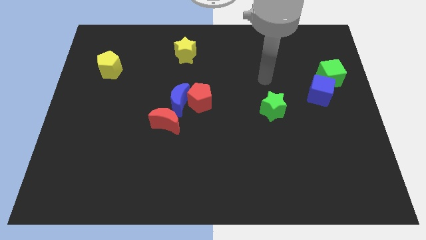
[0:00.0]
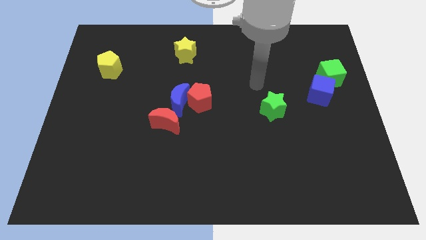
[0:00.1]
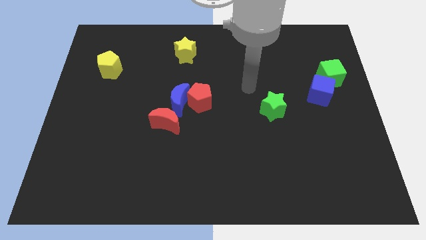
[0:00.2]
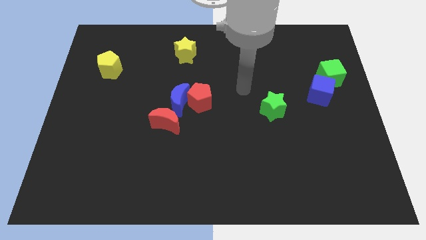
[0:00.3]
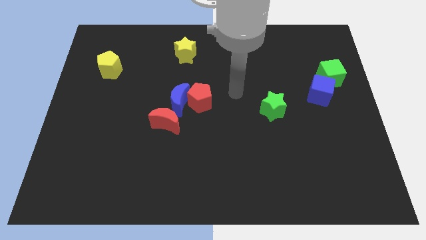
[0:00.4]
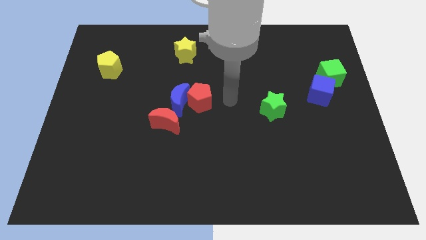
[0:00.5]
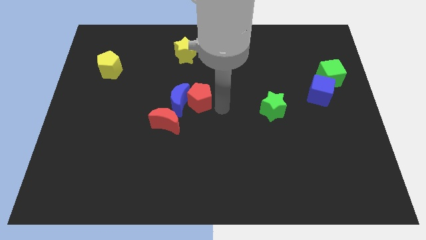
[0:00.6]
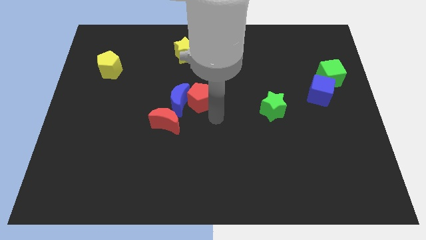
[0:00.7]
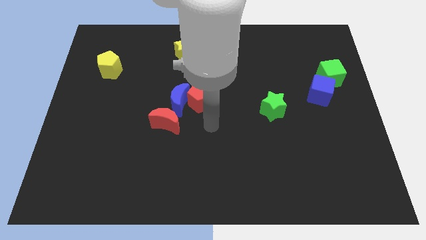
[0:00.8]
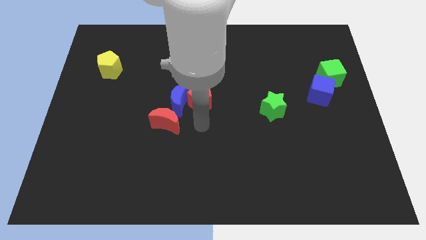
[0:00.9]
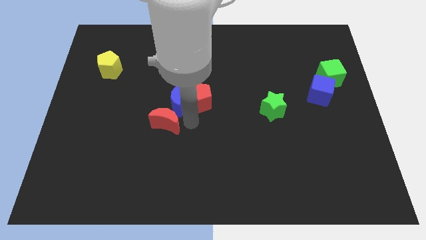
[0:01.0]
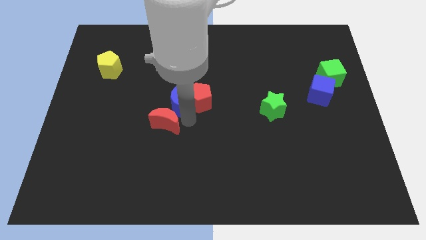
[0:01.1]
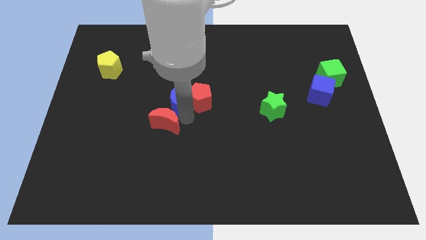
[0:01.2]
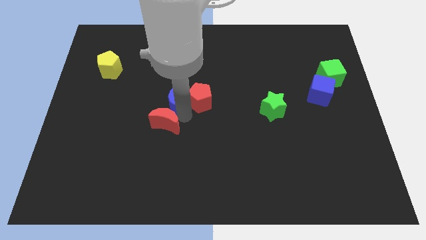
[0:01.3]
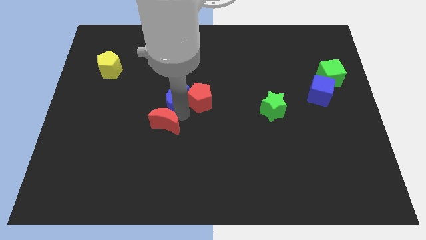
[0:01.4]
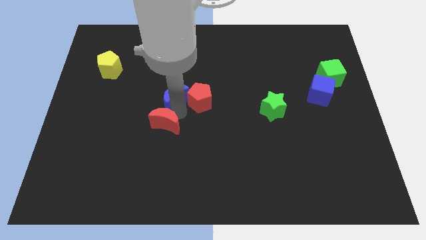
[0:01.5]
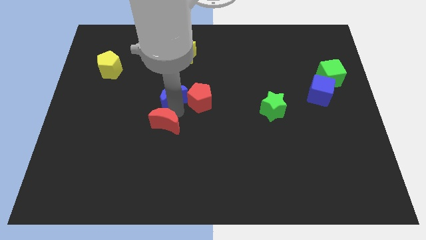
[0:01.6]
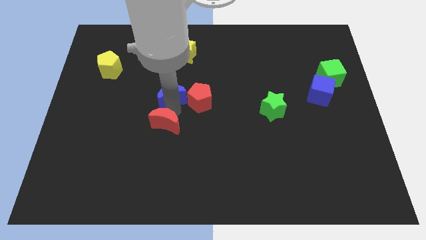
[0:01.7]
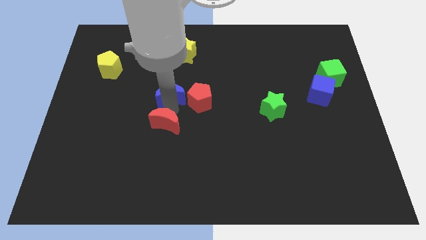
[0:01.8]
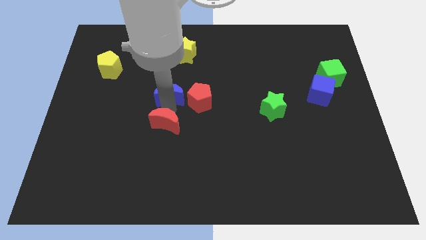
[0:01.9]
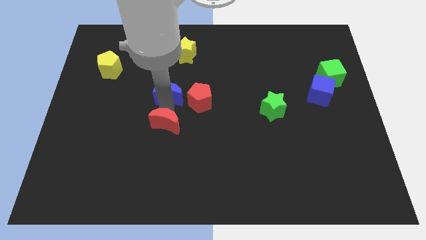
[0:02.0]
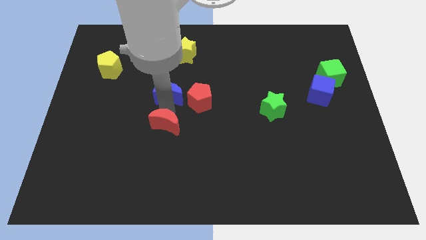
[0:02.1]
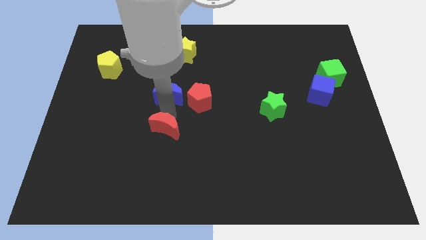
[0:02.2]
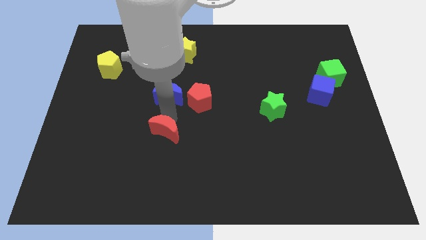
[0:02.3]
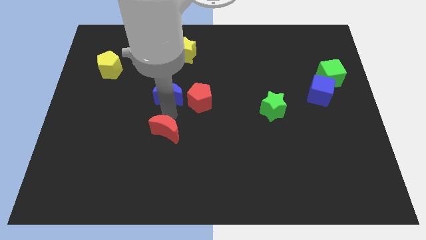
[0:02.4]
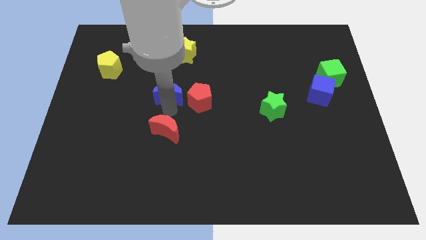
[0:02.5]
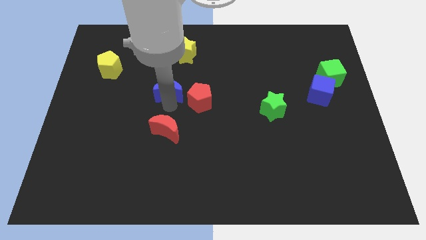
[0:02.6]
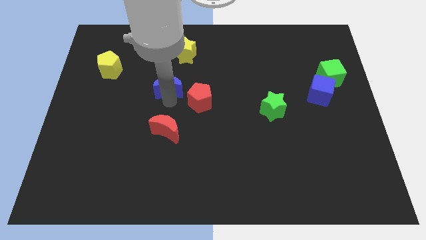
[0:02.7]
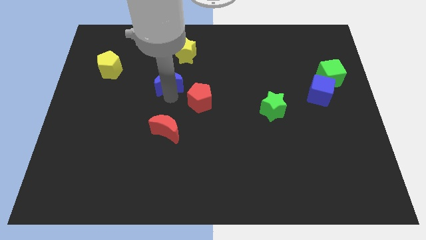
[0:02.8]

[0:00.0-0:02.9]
move the blue moon away from the red pentagon and red moon

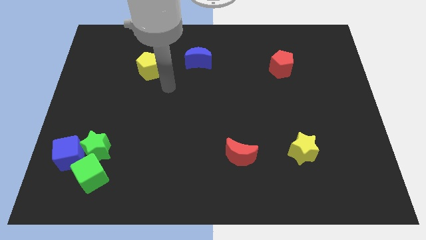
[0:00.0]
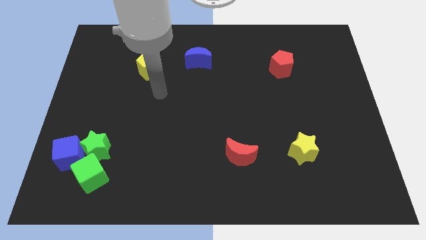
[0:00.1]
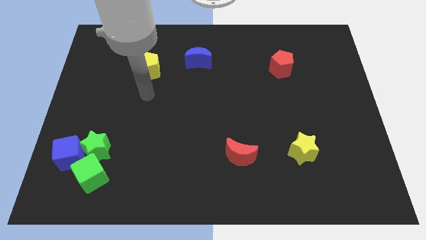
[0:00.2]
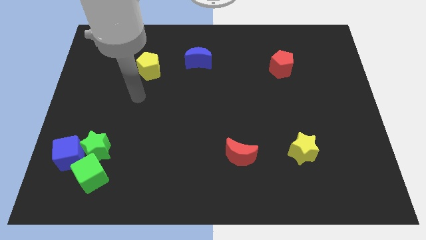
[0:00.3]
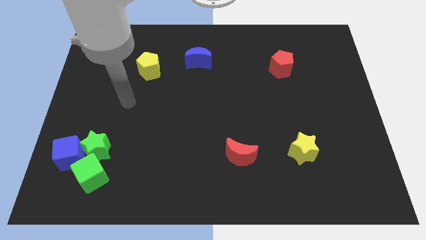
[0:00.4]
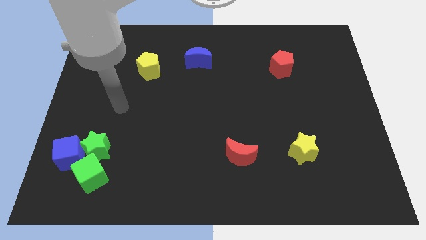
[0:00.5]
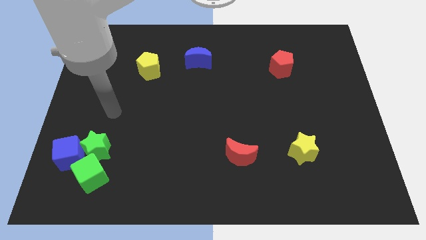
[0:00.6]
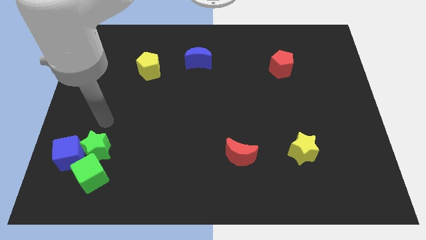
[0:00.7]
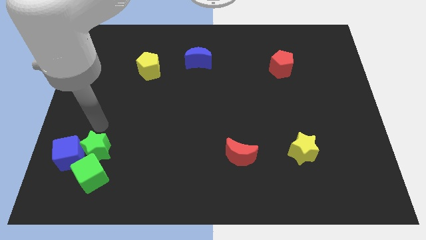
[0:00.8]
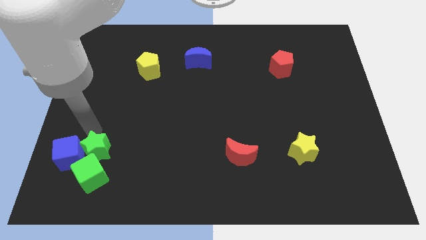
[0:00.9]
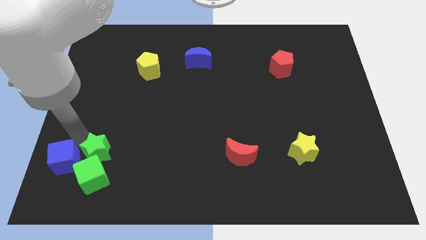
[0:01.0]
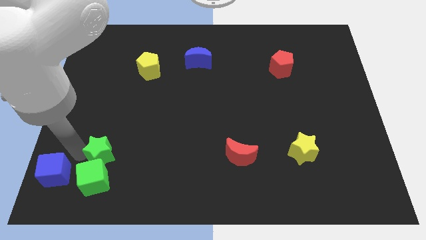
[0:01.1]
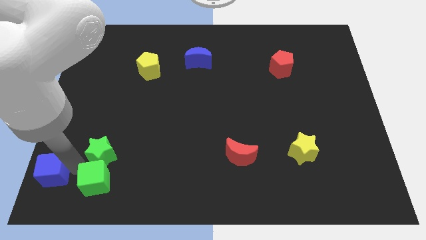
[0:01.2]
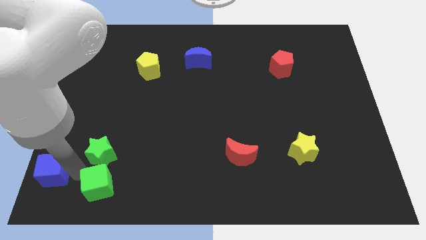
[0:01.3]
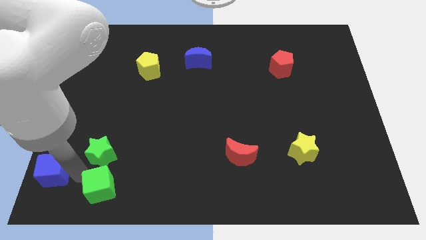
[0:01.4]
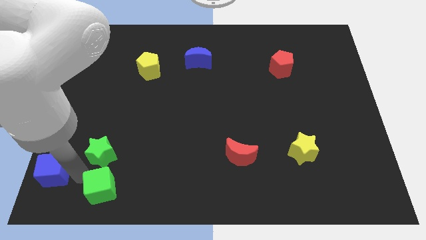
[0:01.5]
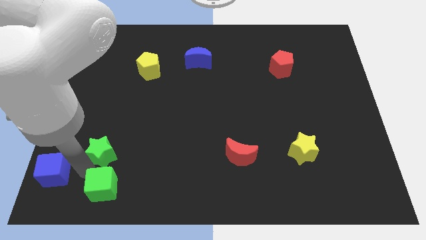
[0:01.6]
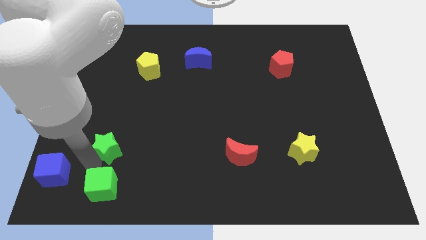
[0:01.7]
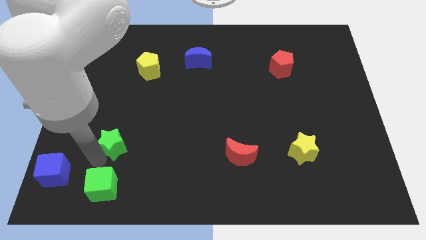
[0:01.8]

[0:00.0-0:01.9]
pull the green star apart from the blue cube and green cube

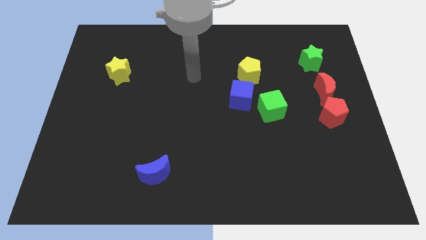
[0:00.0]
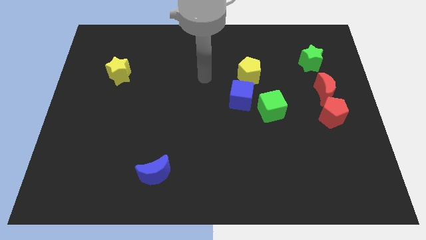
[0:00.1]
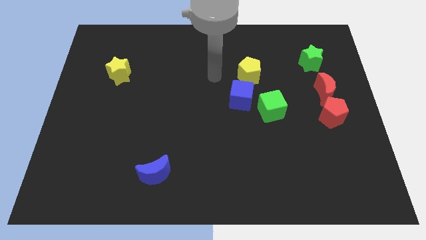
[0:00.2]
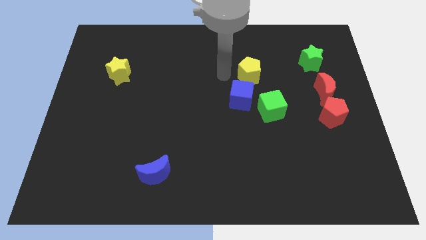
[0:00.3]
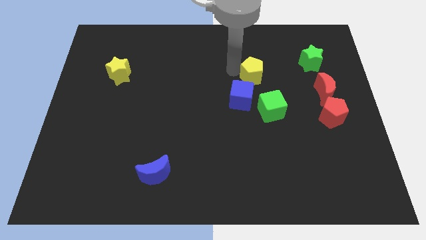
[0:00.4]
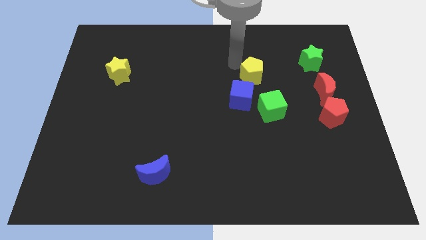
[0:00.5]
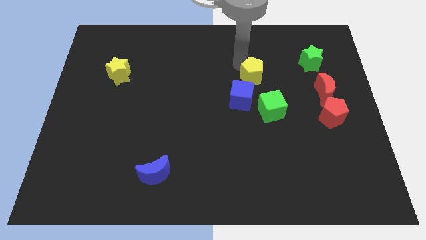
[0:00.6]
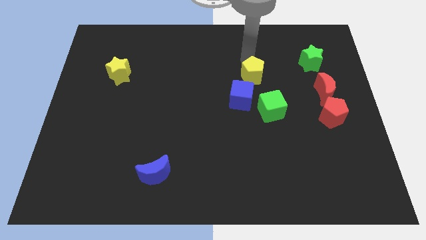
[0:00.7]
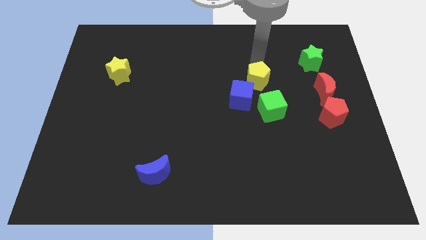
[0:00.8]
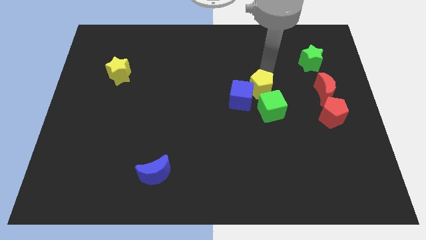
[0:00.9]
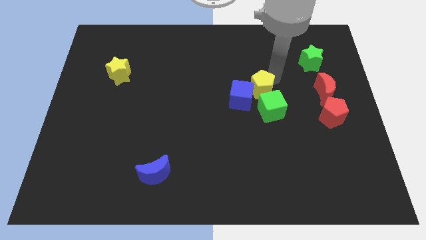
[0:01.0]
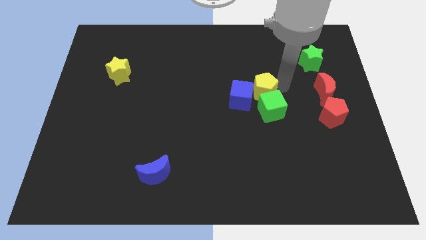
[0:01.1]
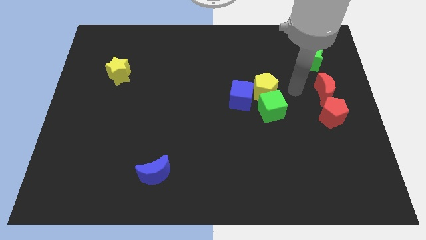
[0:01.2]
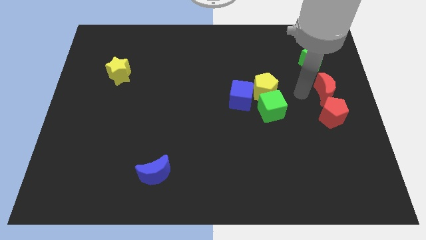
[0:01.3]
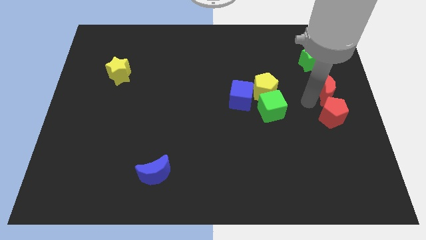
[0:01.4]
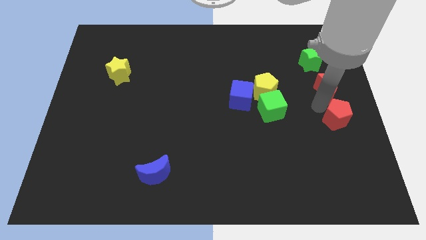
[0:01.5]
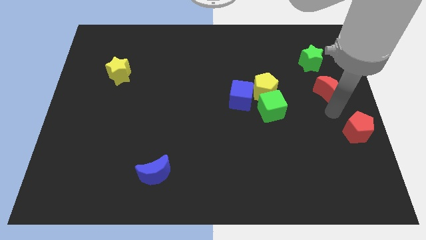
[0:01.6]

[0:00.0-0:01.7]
move the red moon away from the red pentagon

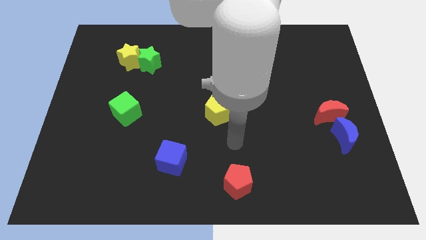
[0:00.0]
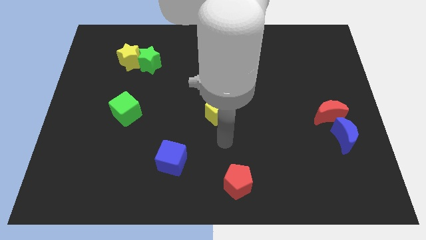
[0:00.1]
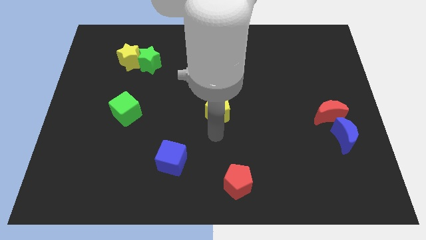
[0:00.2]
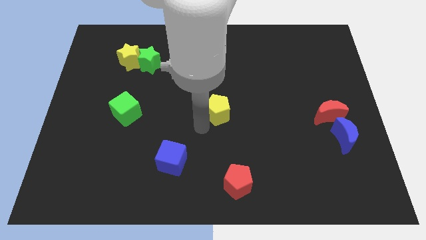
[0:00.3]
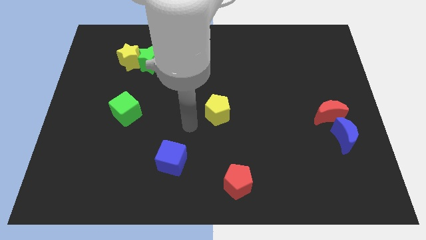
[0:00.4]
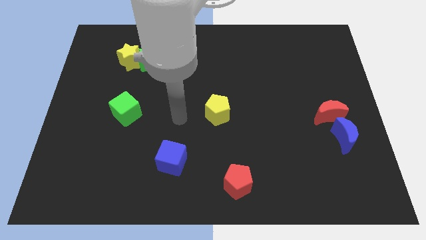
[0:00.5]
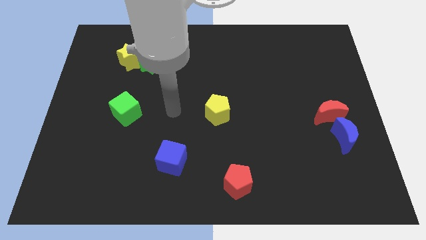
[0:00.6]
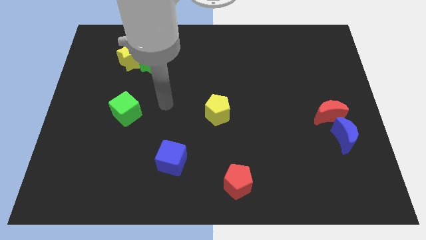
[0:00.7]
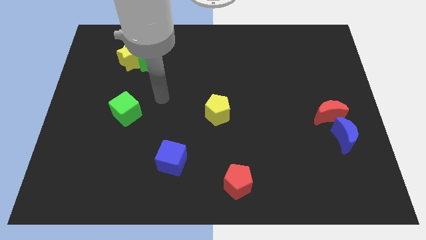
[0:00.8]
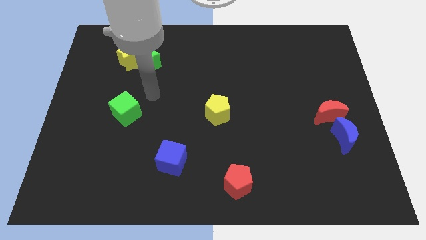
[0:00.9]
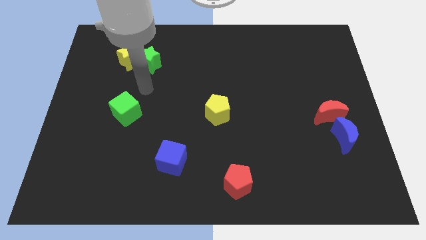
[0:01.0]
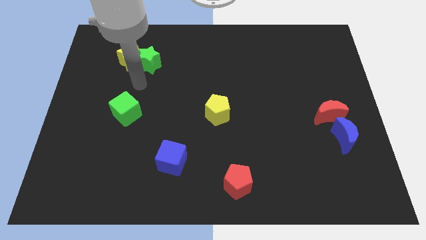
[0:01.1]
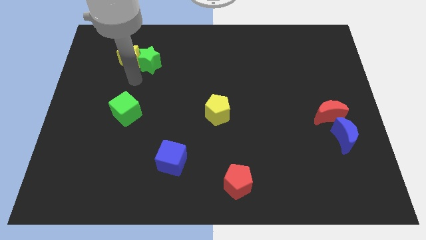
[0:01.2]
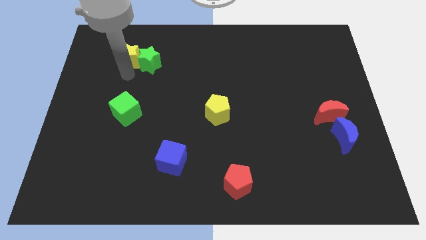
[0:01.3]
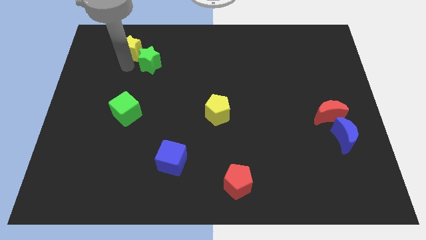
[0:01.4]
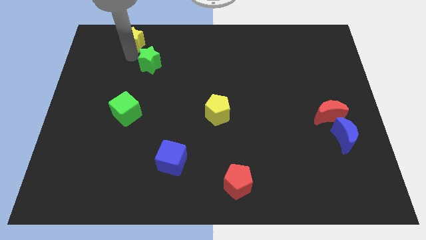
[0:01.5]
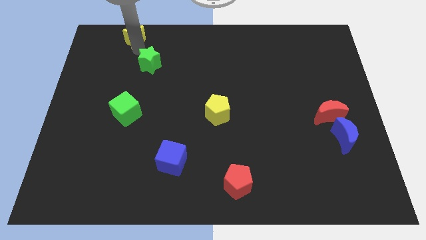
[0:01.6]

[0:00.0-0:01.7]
pull the green star apart from the yellow star

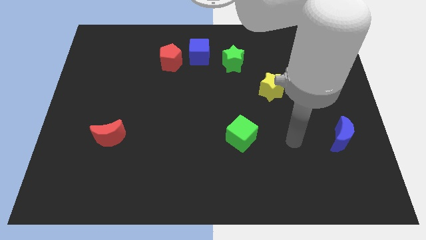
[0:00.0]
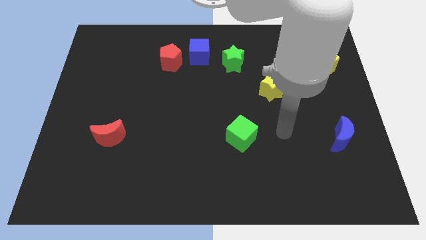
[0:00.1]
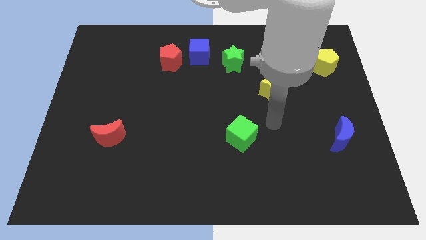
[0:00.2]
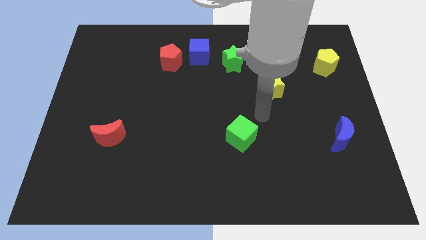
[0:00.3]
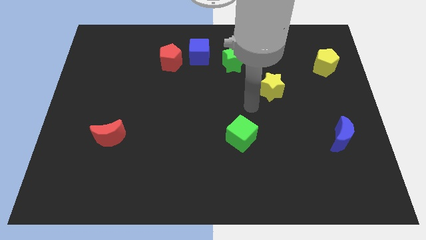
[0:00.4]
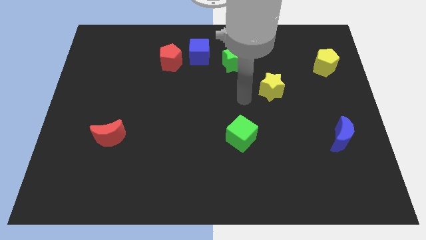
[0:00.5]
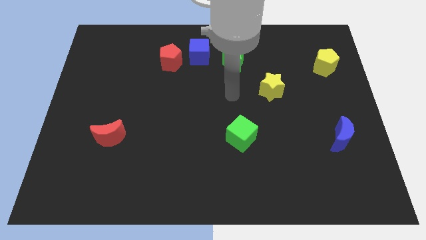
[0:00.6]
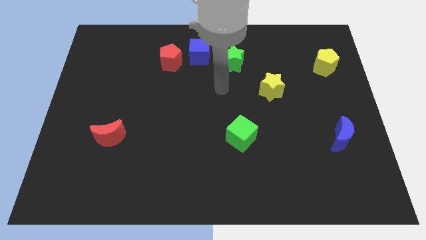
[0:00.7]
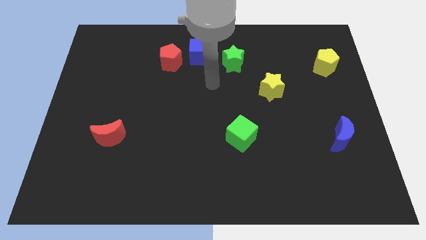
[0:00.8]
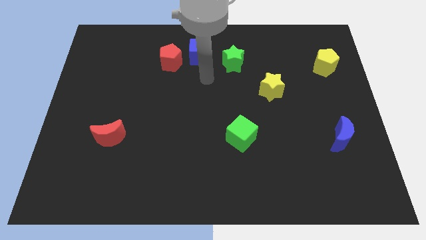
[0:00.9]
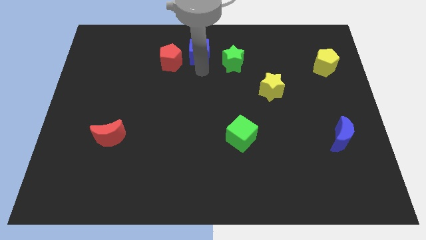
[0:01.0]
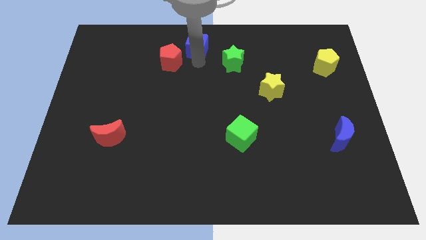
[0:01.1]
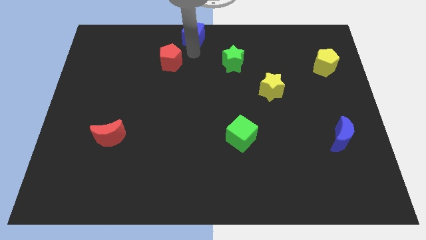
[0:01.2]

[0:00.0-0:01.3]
separate the red pentagon from the blue cube
